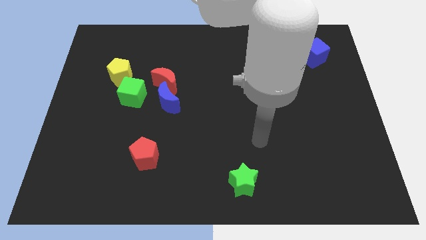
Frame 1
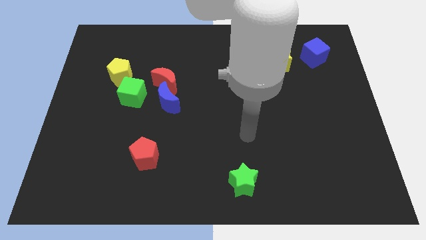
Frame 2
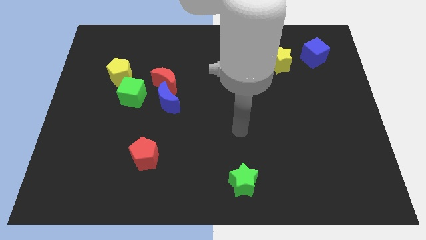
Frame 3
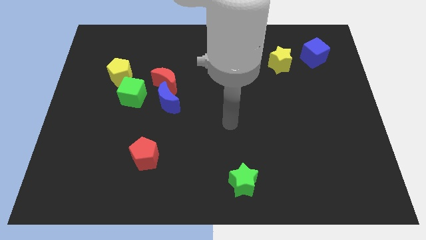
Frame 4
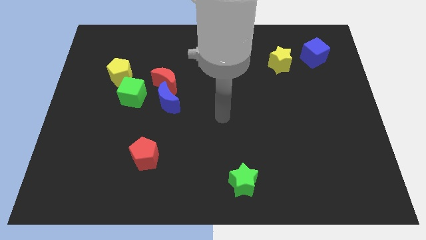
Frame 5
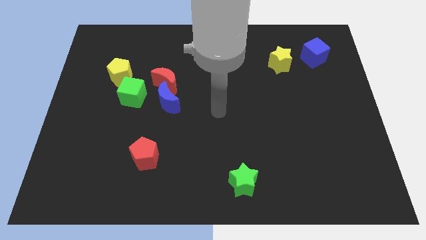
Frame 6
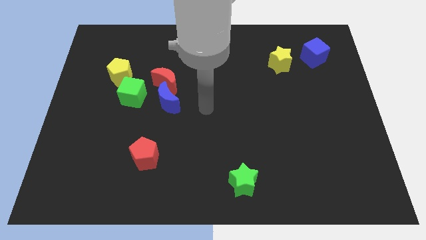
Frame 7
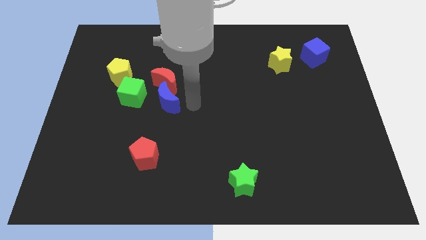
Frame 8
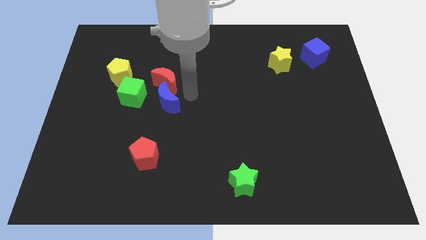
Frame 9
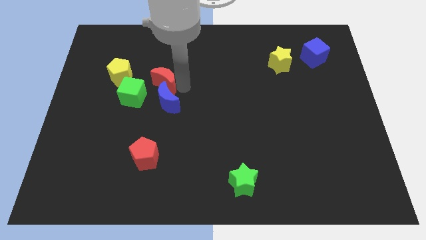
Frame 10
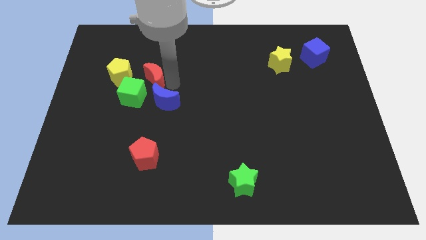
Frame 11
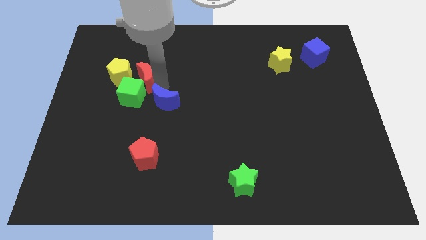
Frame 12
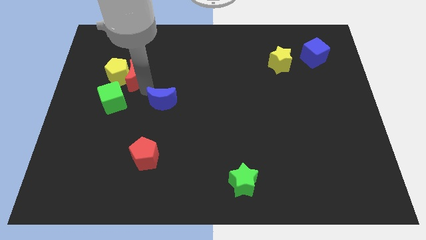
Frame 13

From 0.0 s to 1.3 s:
move the blue moon away from the red moon and green cube

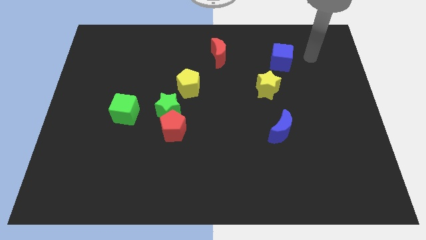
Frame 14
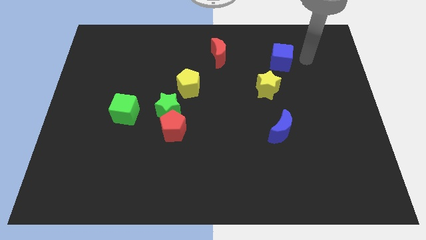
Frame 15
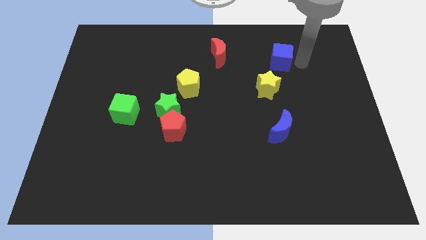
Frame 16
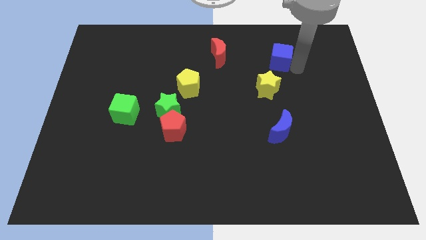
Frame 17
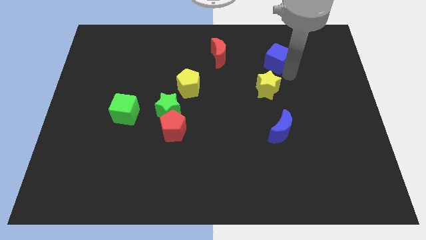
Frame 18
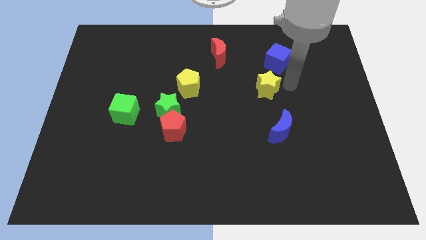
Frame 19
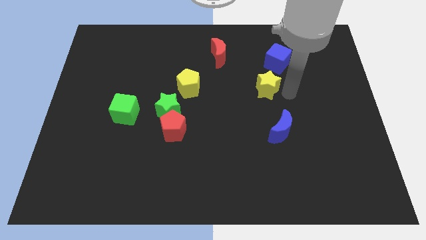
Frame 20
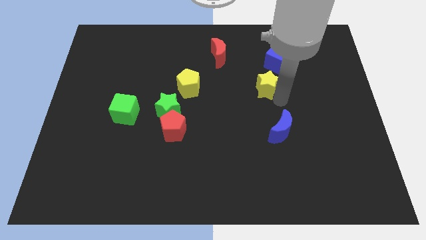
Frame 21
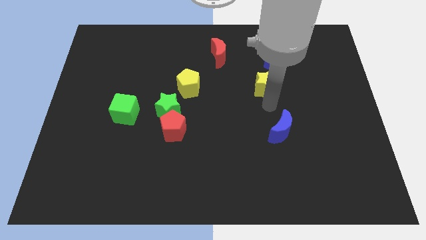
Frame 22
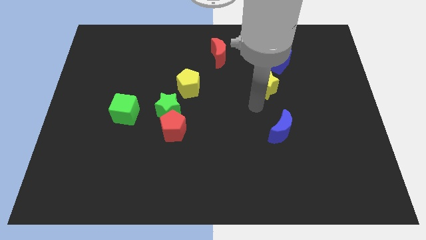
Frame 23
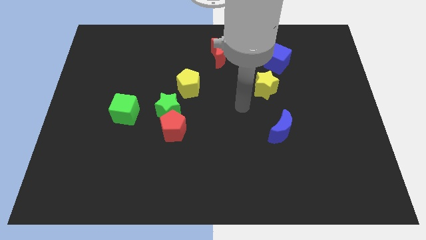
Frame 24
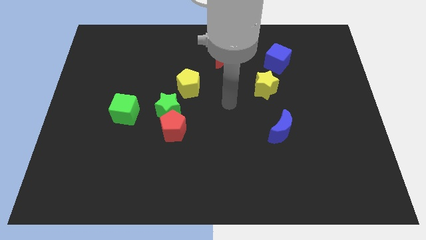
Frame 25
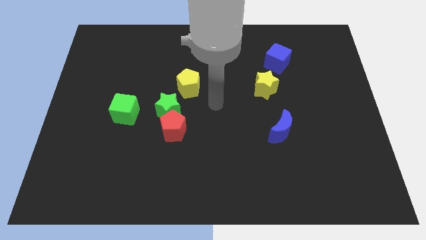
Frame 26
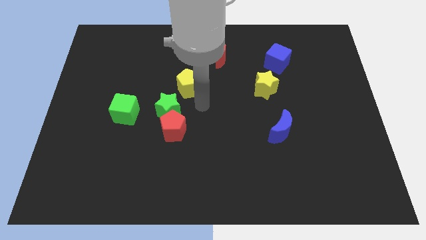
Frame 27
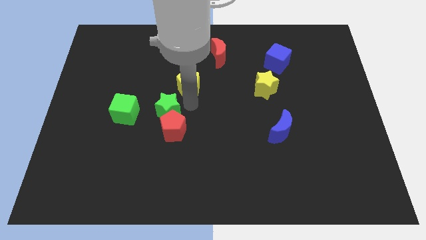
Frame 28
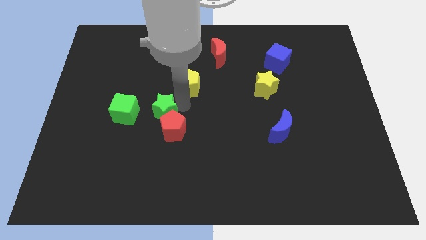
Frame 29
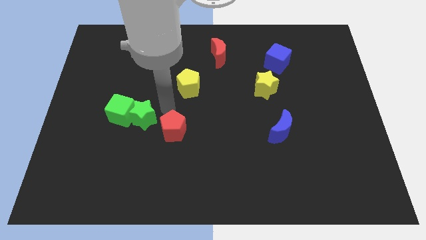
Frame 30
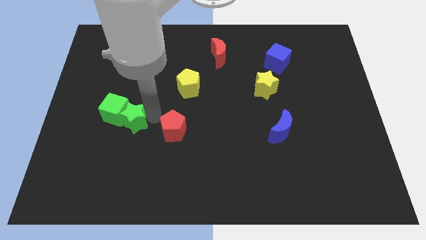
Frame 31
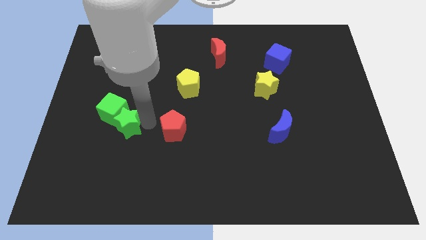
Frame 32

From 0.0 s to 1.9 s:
move the red pentagon away from the green star

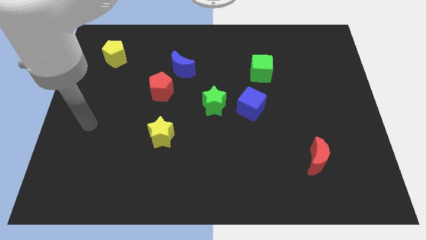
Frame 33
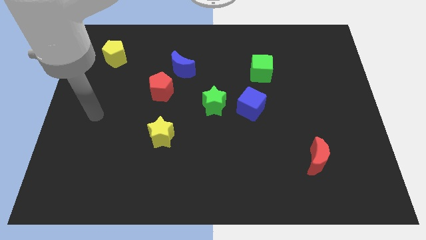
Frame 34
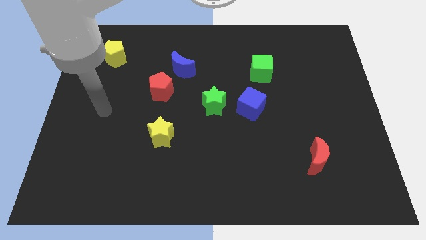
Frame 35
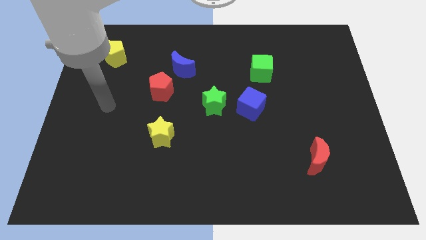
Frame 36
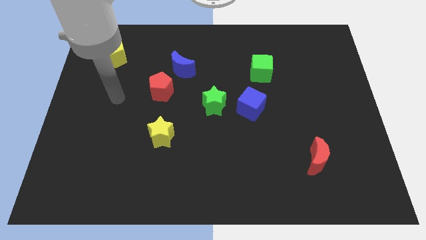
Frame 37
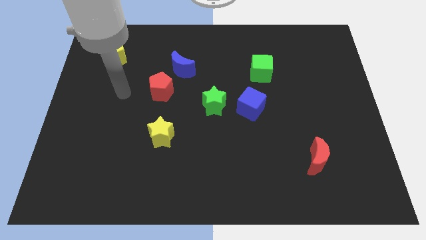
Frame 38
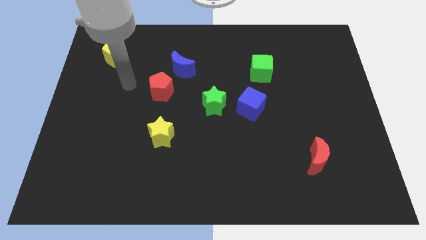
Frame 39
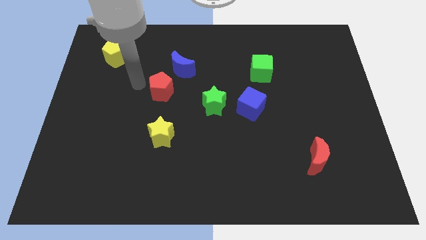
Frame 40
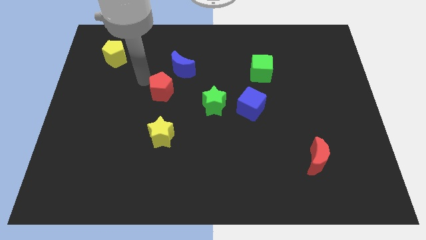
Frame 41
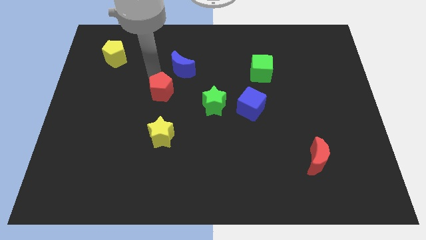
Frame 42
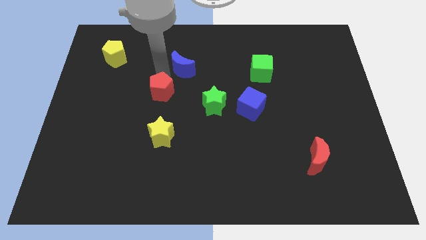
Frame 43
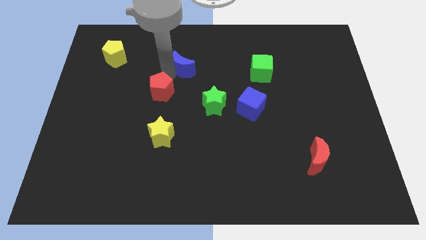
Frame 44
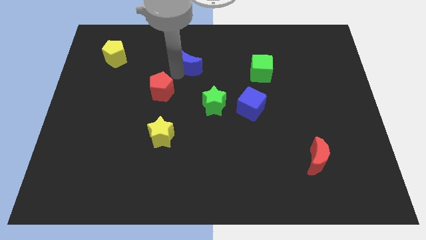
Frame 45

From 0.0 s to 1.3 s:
pull the red pentagon apart from the blue moon

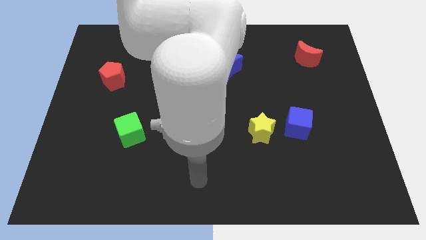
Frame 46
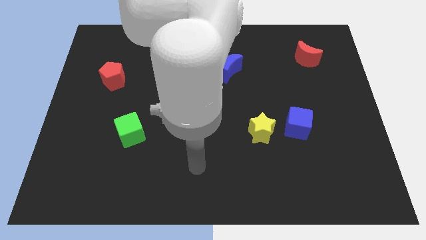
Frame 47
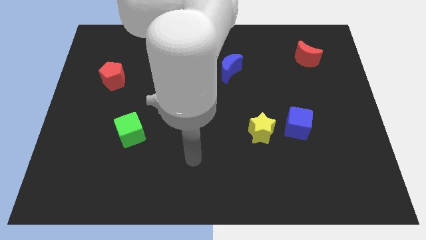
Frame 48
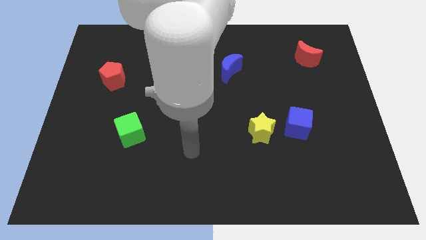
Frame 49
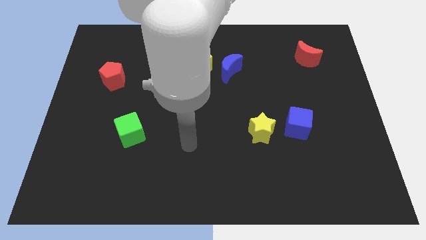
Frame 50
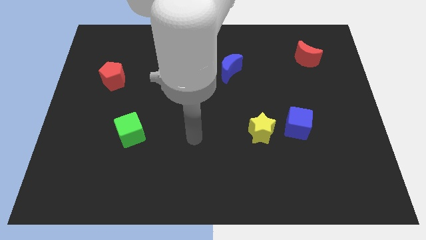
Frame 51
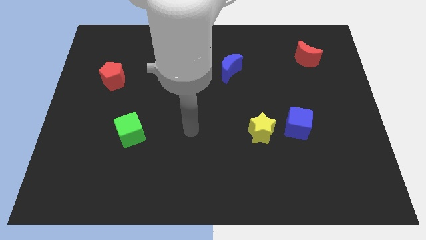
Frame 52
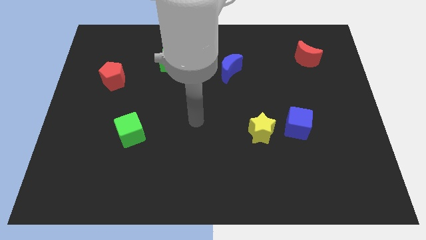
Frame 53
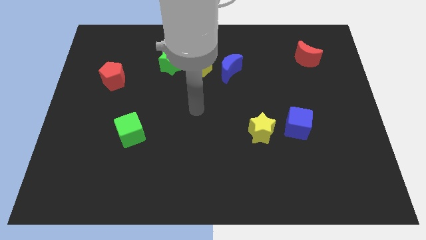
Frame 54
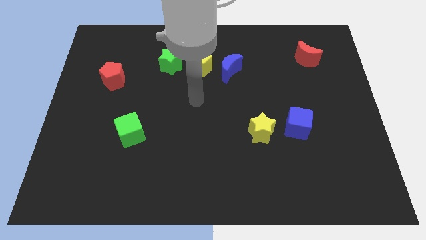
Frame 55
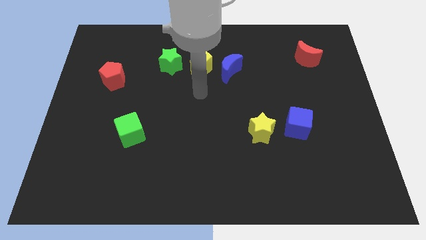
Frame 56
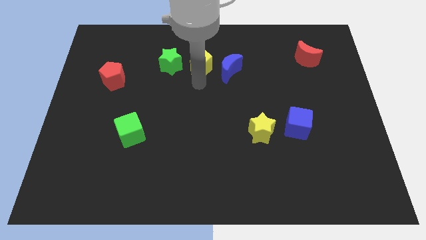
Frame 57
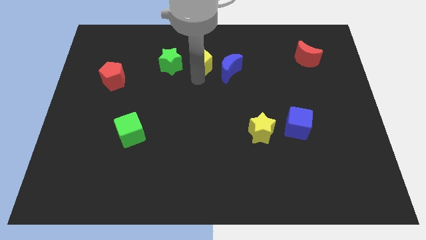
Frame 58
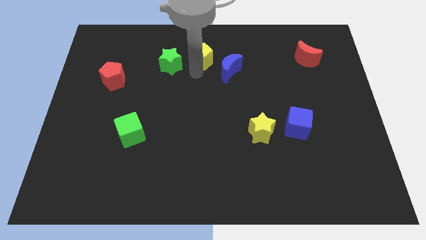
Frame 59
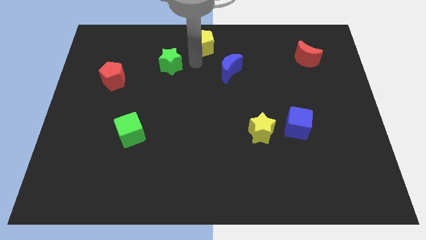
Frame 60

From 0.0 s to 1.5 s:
pull the green star apart from the yellow pentagon

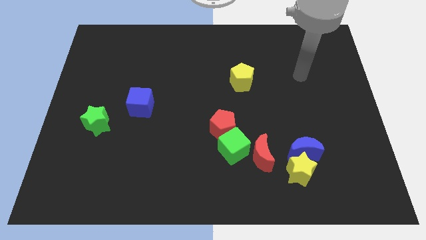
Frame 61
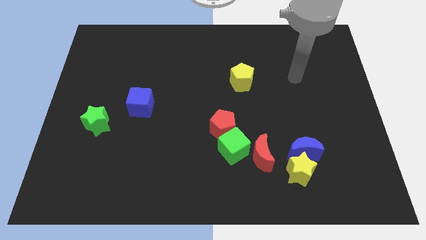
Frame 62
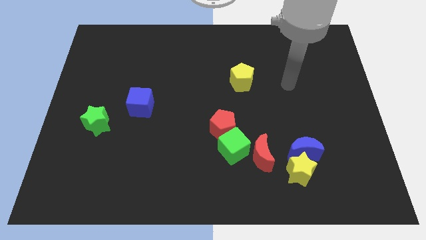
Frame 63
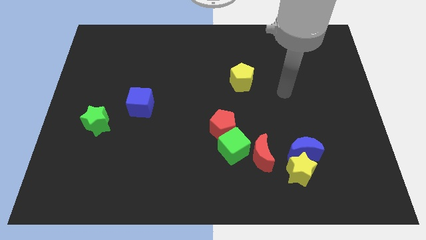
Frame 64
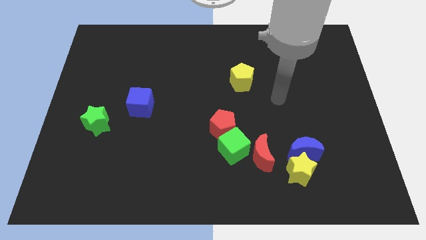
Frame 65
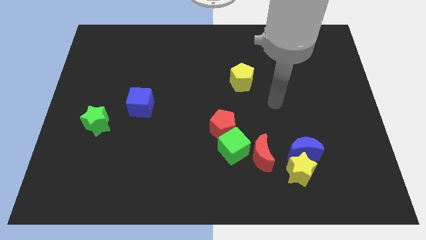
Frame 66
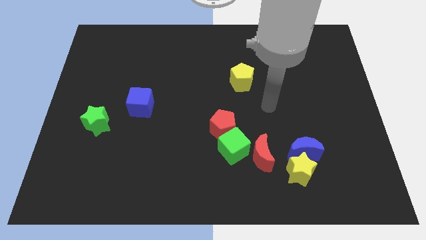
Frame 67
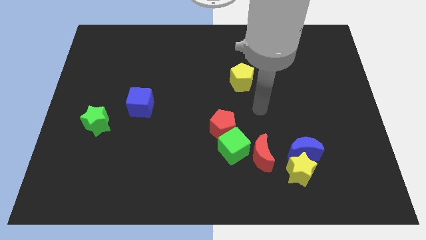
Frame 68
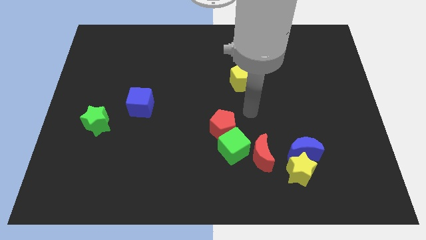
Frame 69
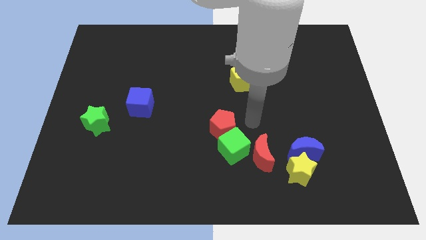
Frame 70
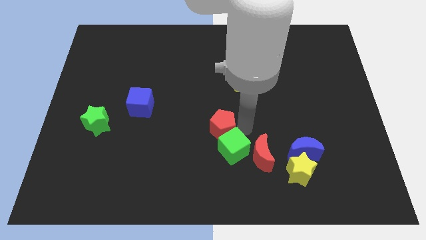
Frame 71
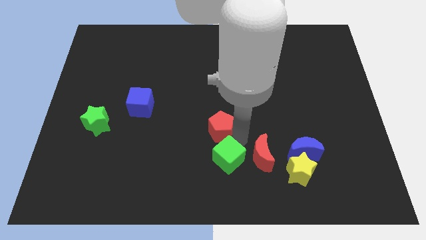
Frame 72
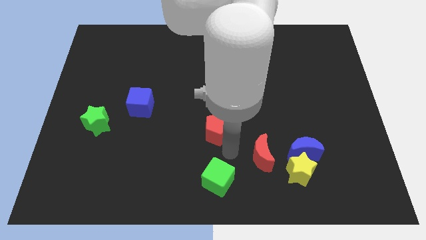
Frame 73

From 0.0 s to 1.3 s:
move the red pentagon away from the green cube

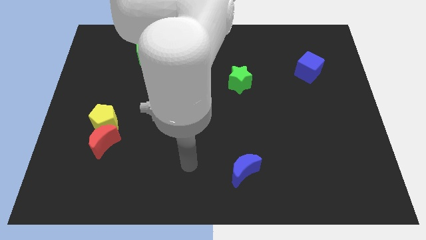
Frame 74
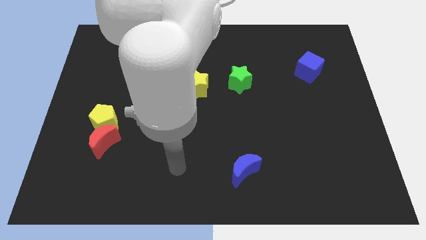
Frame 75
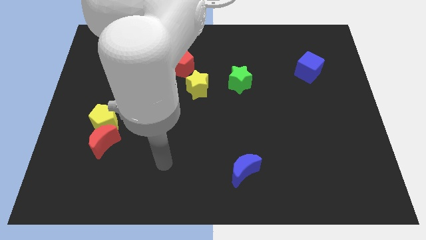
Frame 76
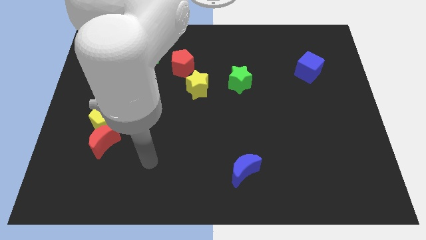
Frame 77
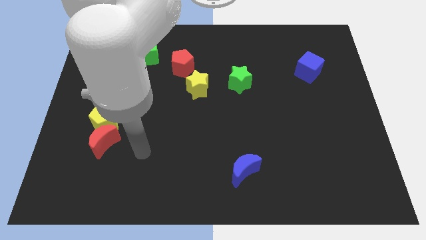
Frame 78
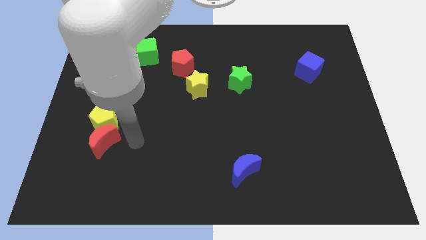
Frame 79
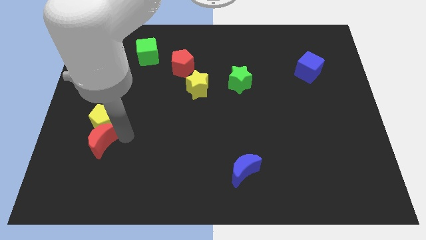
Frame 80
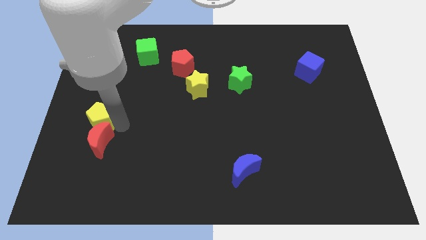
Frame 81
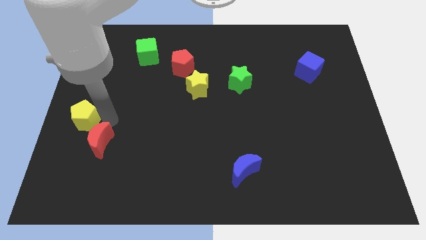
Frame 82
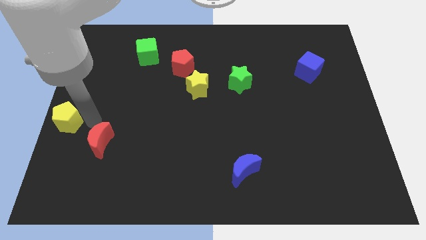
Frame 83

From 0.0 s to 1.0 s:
move the red moon away from the yellow pentagon

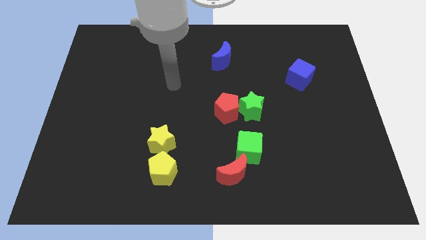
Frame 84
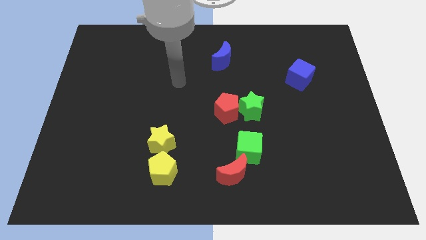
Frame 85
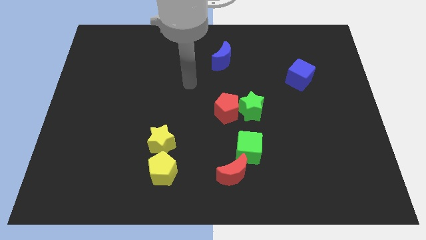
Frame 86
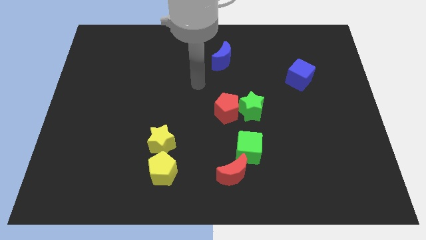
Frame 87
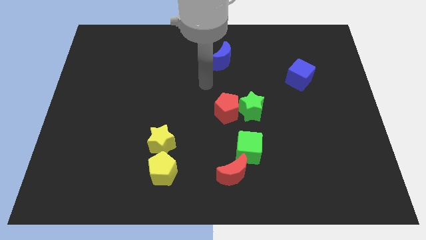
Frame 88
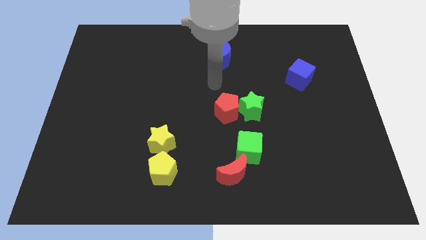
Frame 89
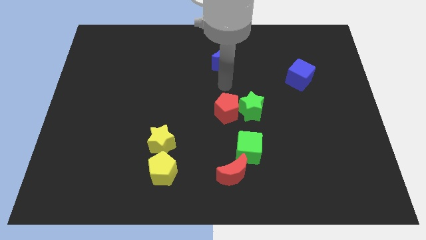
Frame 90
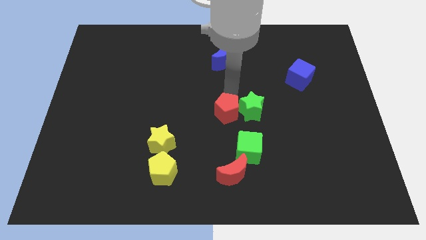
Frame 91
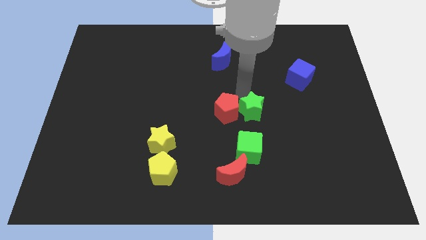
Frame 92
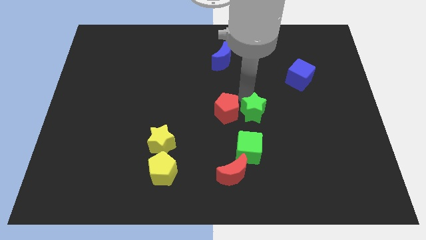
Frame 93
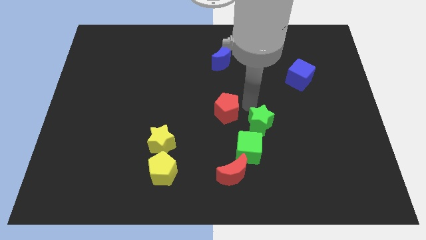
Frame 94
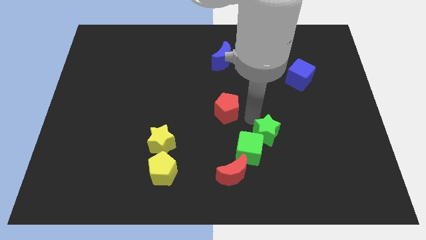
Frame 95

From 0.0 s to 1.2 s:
separate the red pentagon from the green star

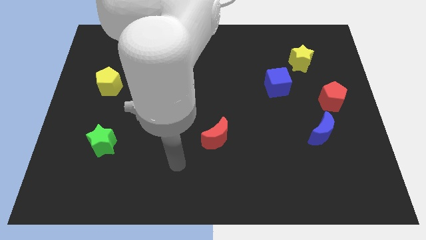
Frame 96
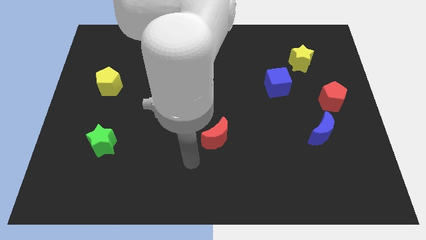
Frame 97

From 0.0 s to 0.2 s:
move the red pentagon away from the blue moon
